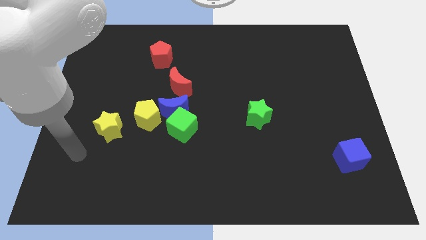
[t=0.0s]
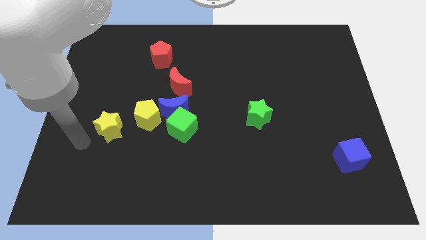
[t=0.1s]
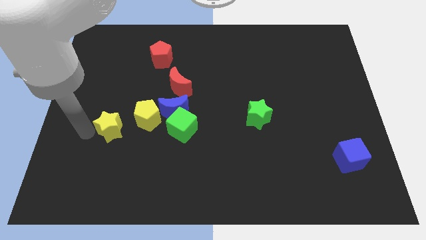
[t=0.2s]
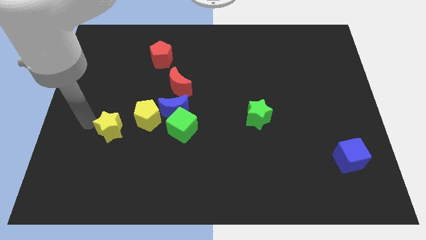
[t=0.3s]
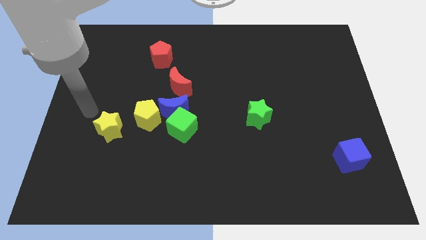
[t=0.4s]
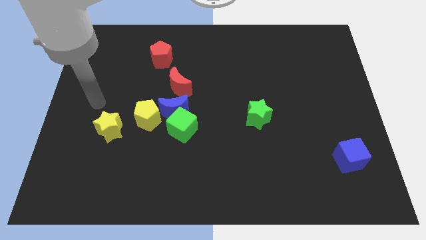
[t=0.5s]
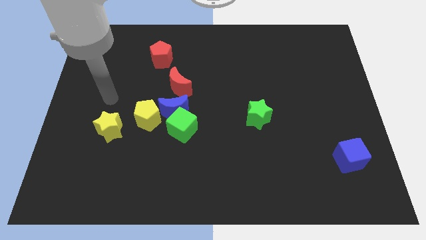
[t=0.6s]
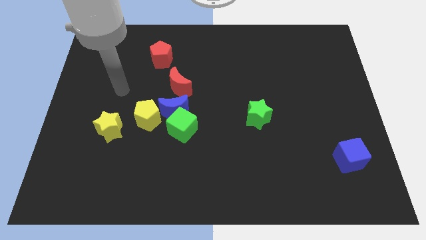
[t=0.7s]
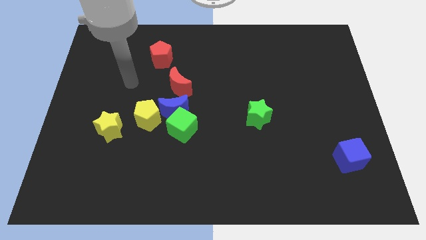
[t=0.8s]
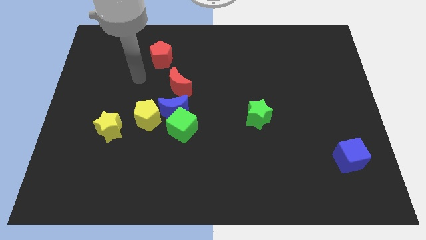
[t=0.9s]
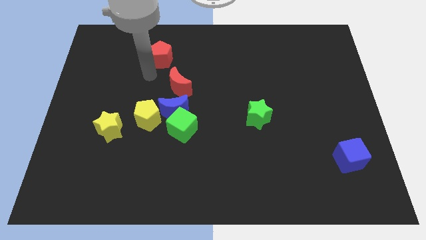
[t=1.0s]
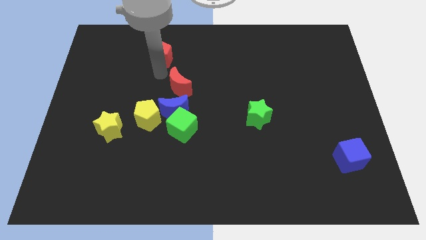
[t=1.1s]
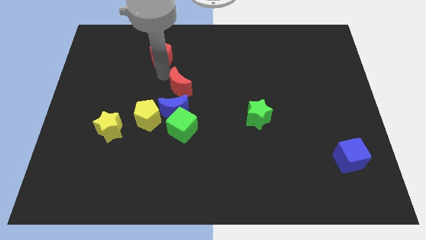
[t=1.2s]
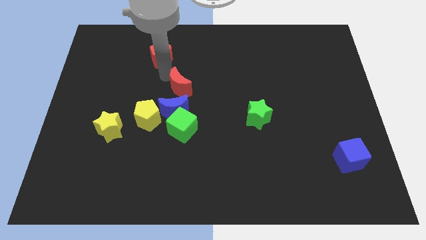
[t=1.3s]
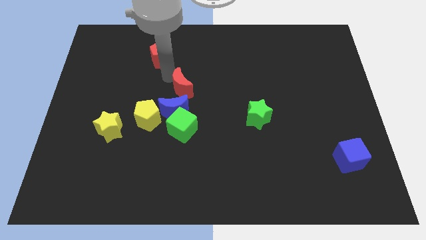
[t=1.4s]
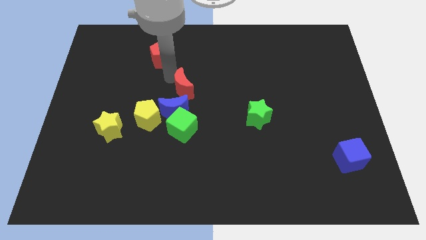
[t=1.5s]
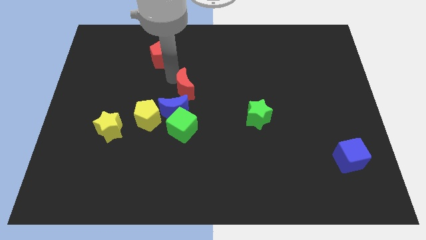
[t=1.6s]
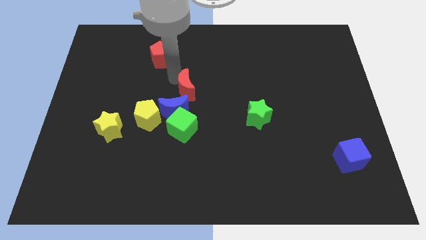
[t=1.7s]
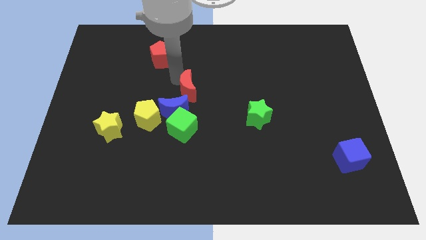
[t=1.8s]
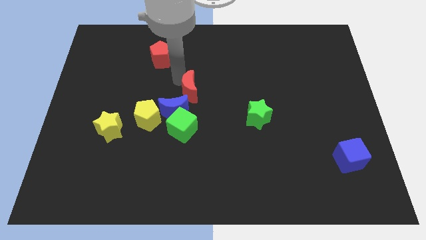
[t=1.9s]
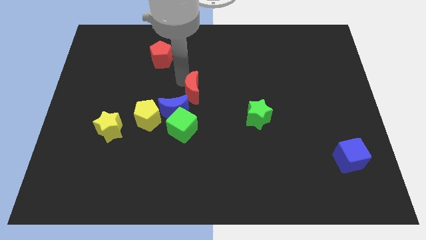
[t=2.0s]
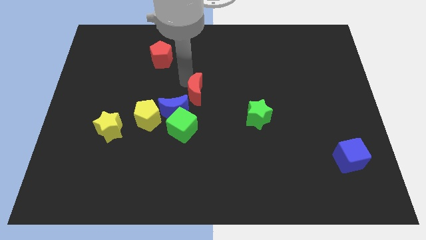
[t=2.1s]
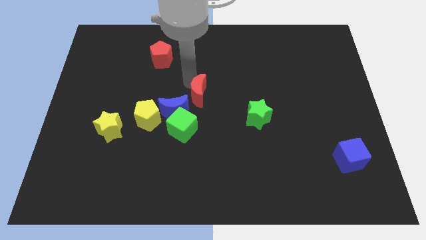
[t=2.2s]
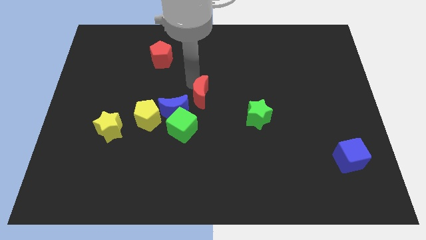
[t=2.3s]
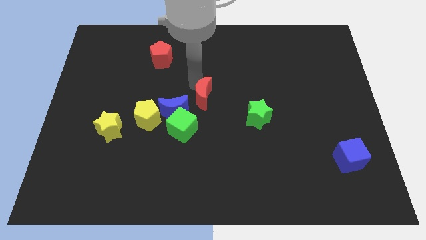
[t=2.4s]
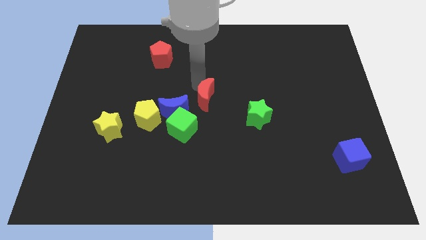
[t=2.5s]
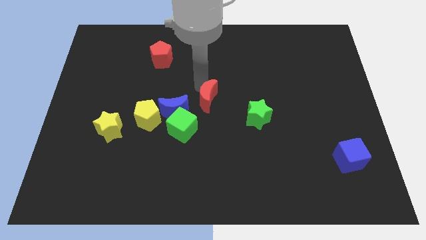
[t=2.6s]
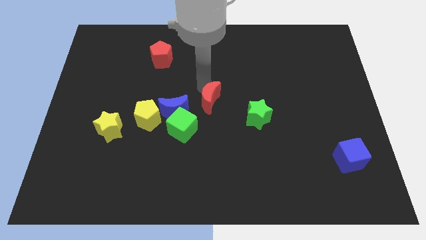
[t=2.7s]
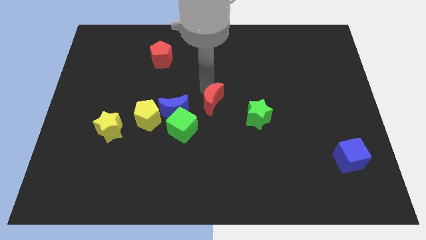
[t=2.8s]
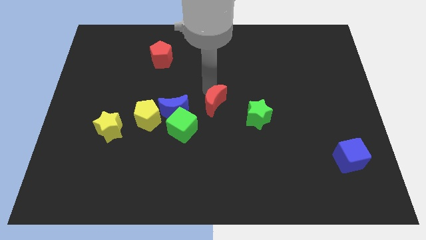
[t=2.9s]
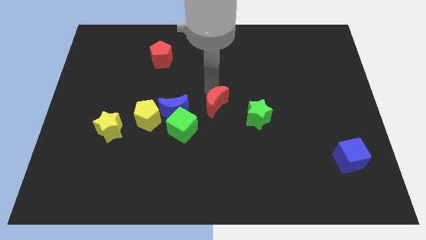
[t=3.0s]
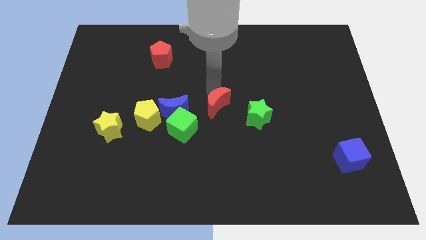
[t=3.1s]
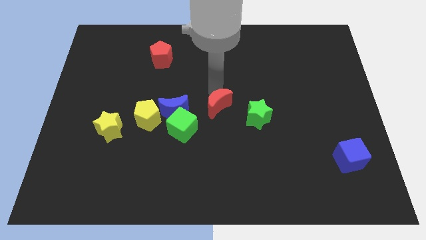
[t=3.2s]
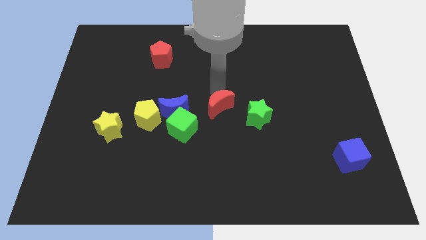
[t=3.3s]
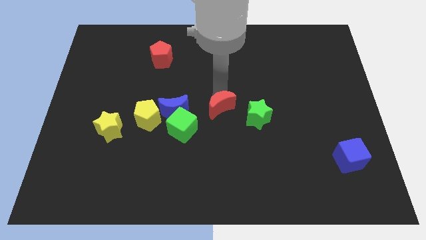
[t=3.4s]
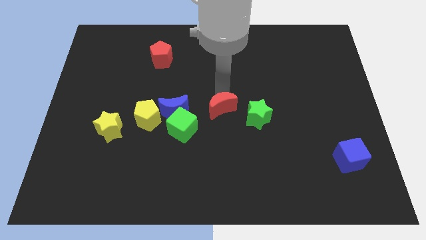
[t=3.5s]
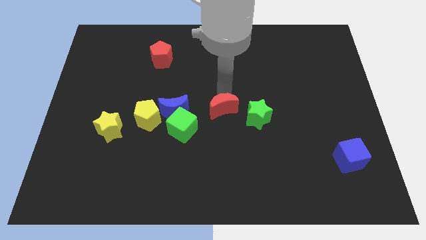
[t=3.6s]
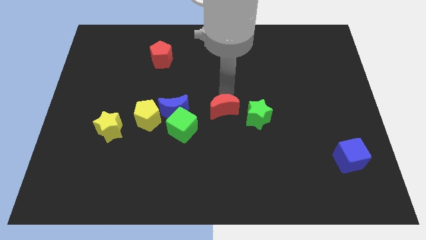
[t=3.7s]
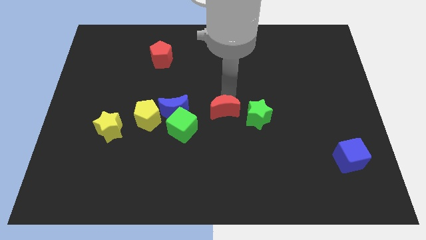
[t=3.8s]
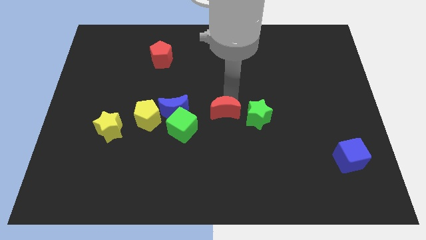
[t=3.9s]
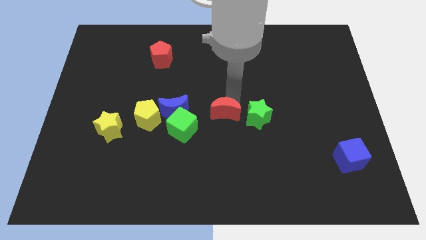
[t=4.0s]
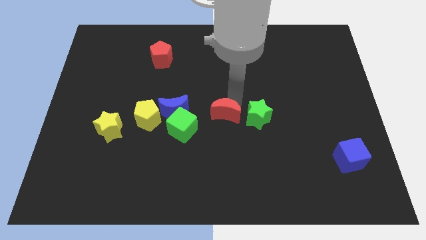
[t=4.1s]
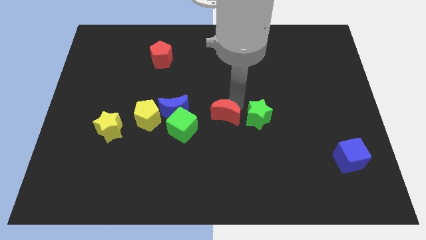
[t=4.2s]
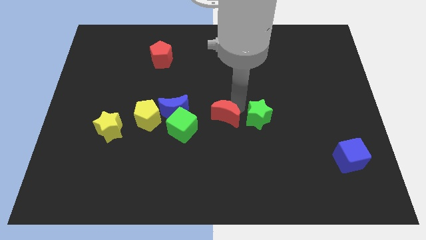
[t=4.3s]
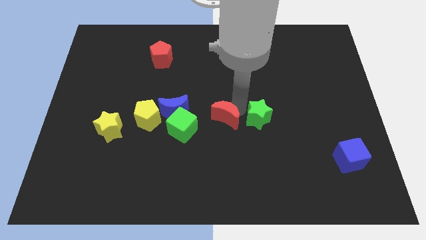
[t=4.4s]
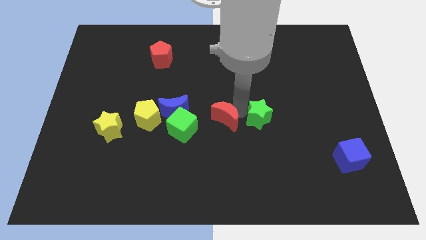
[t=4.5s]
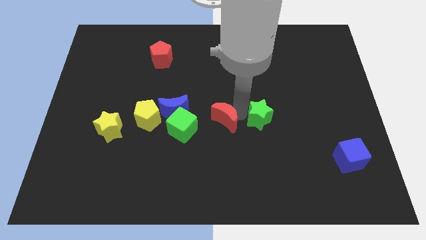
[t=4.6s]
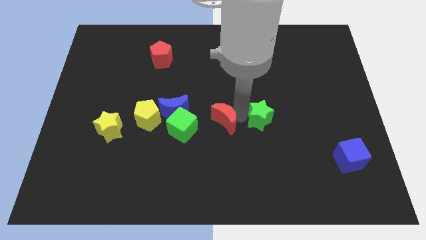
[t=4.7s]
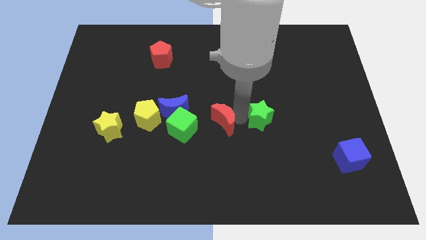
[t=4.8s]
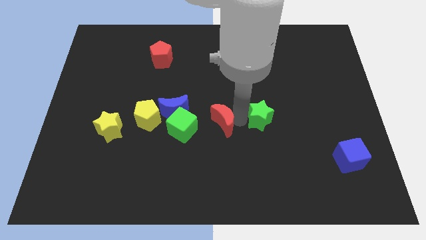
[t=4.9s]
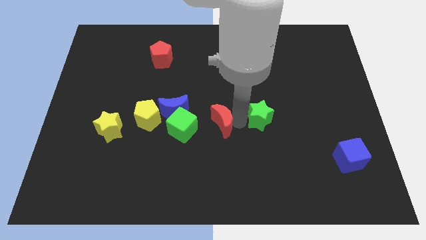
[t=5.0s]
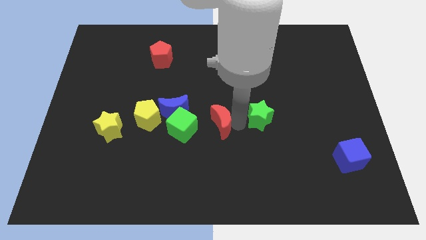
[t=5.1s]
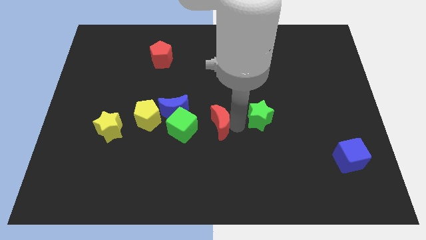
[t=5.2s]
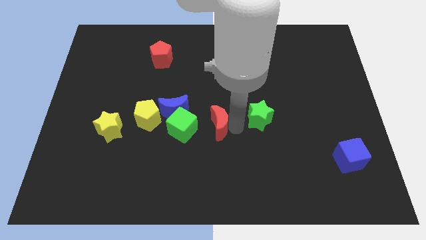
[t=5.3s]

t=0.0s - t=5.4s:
slightly move the red moon down

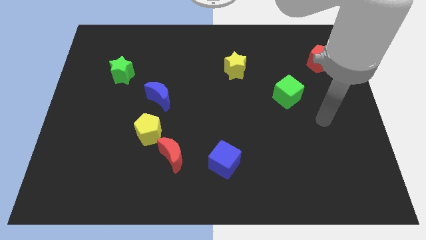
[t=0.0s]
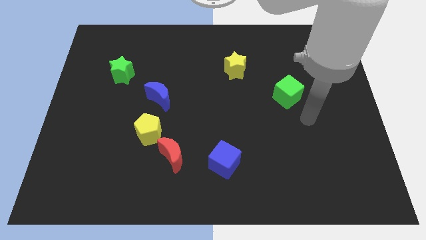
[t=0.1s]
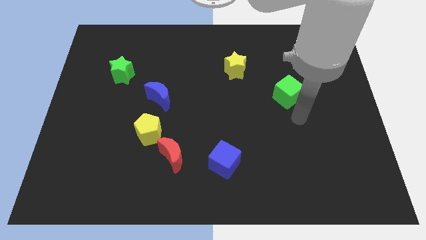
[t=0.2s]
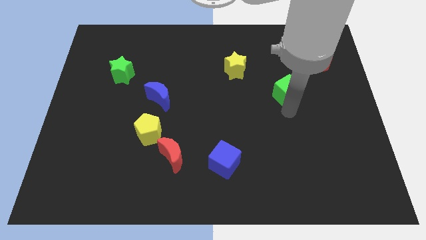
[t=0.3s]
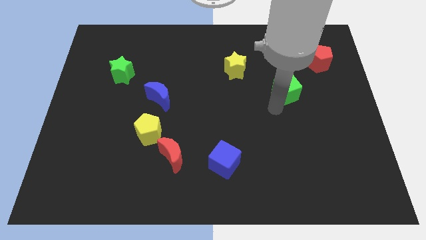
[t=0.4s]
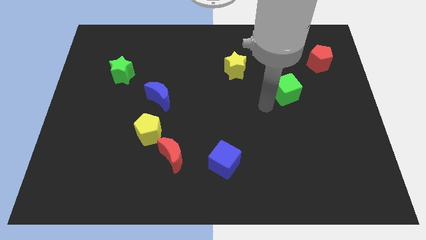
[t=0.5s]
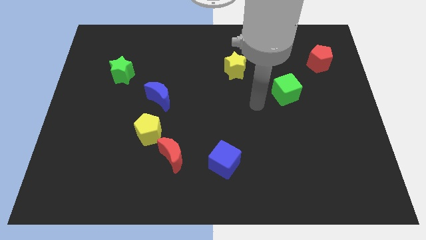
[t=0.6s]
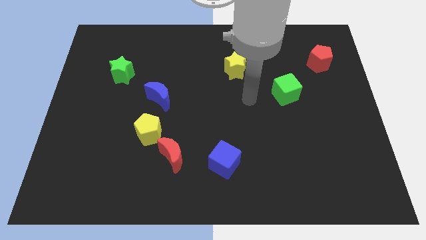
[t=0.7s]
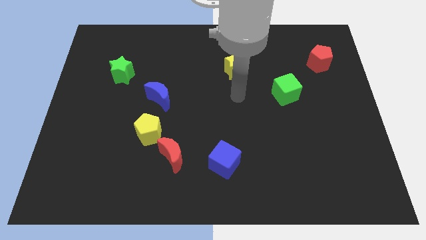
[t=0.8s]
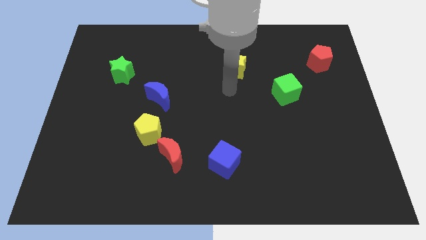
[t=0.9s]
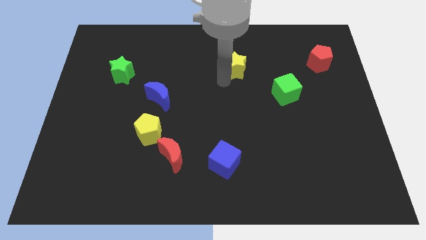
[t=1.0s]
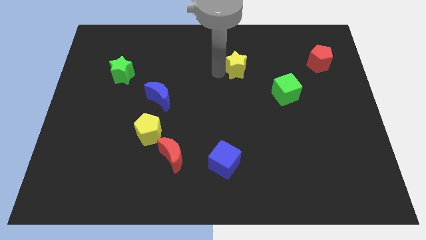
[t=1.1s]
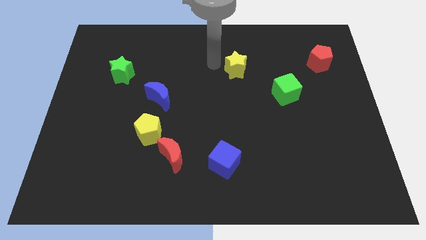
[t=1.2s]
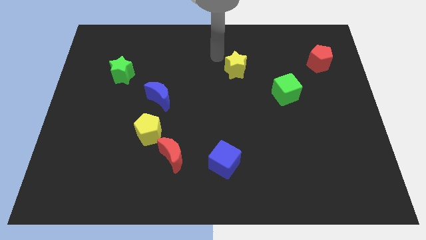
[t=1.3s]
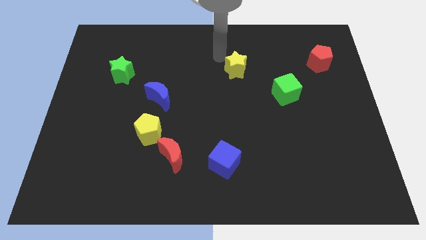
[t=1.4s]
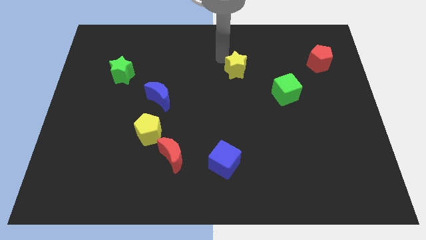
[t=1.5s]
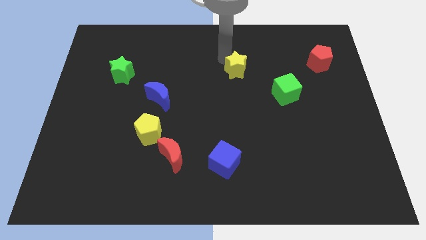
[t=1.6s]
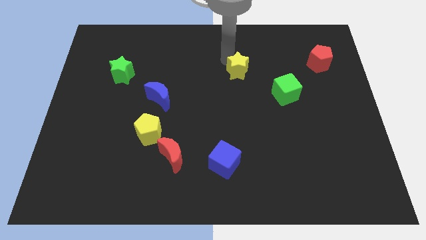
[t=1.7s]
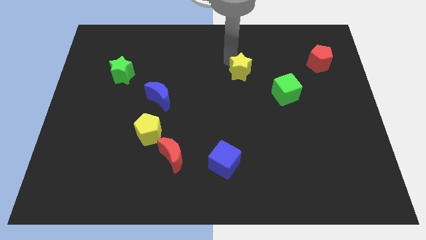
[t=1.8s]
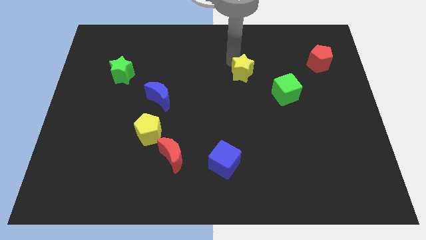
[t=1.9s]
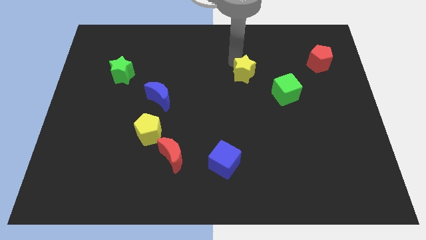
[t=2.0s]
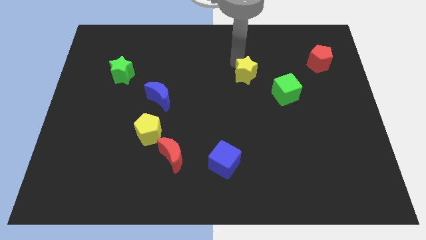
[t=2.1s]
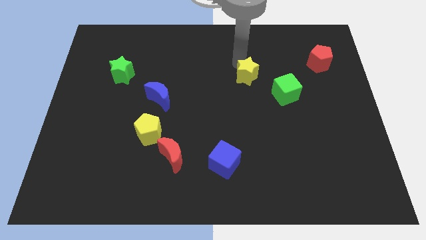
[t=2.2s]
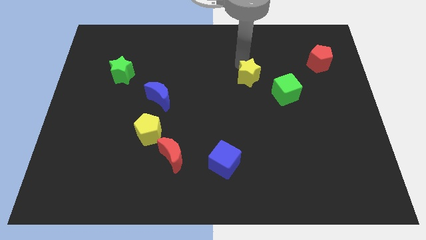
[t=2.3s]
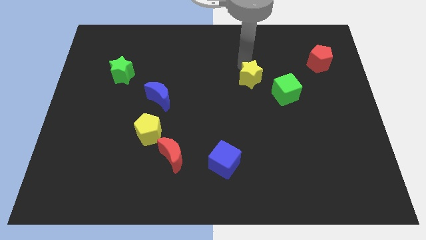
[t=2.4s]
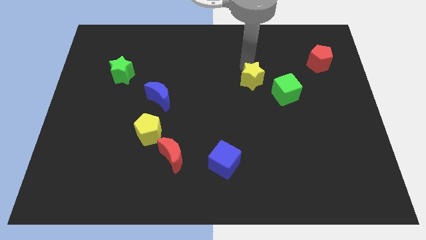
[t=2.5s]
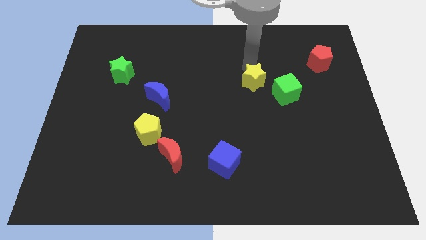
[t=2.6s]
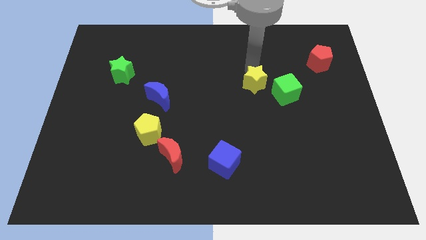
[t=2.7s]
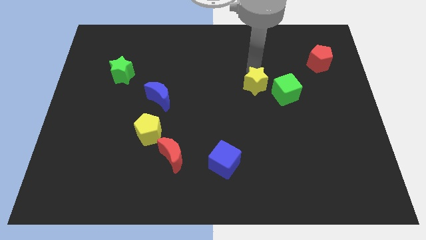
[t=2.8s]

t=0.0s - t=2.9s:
slightly slide the yellow star downwards and to the right
